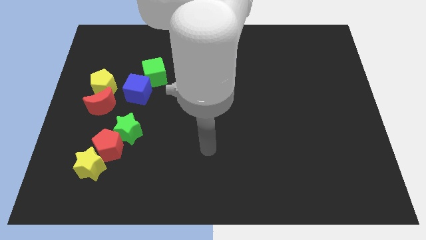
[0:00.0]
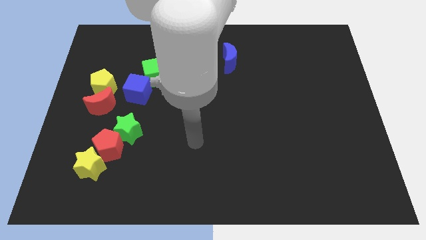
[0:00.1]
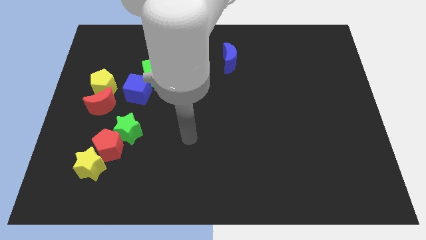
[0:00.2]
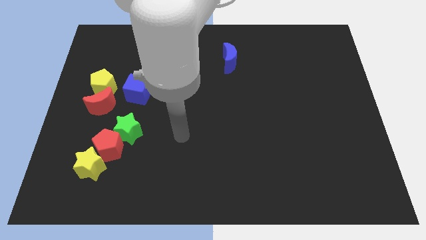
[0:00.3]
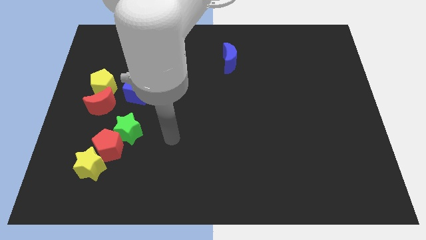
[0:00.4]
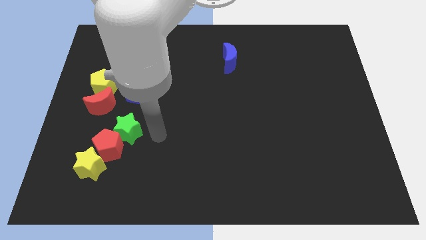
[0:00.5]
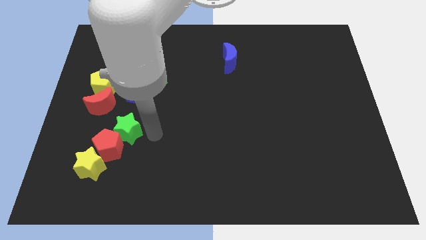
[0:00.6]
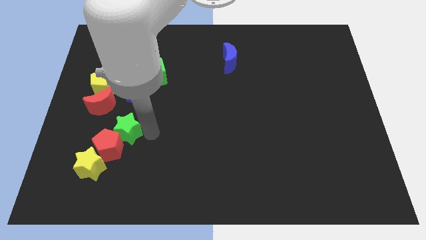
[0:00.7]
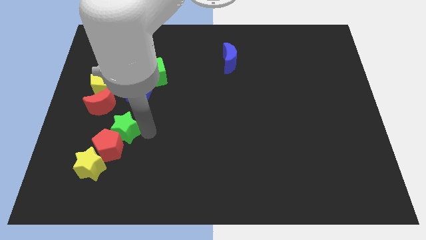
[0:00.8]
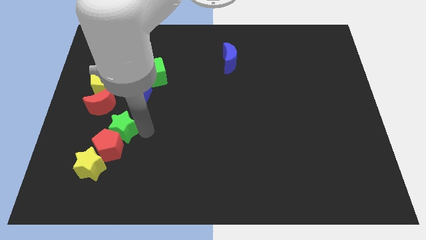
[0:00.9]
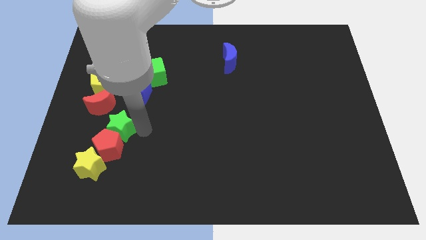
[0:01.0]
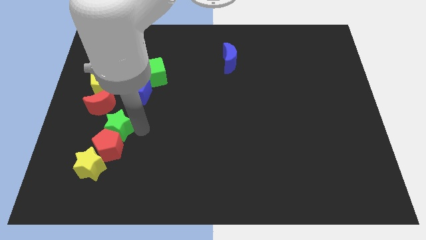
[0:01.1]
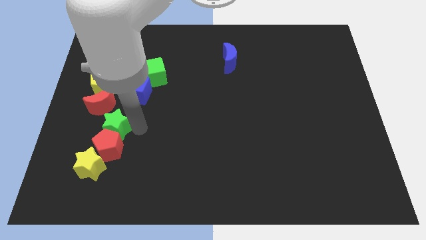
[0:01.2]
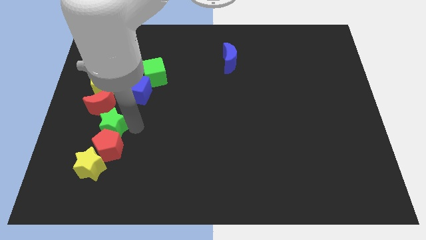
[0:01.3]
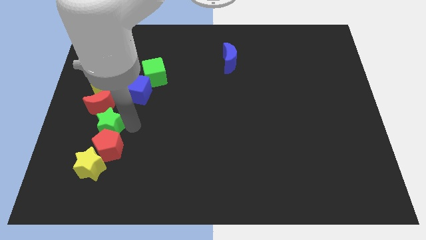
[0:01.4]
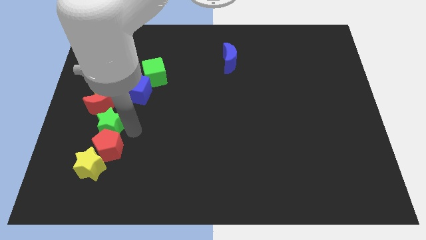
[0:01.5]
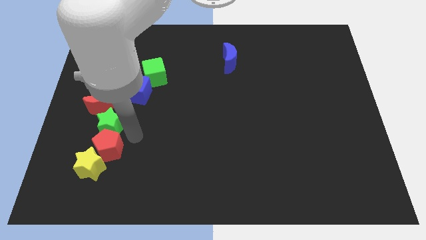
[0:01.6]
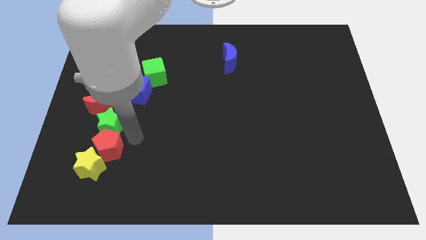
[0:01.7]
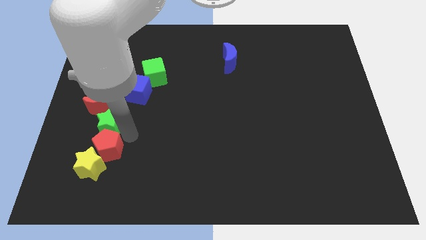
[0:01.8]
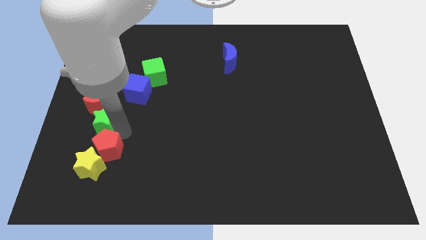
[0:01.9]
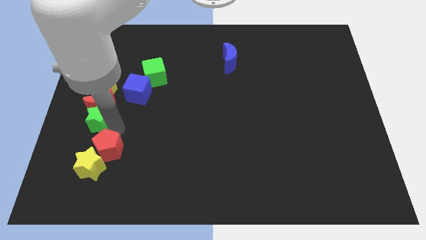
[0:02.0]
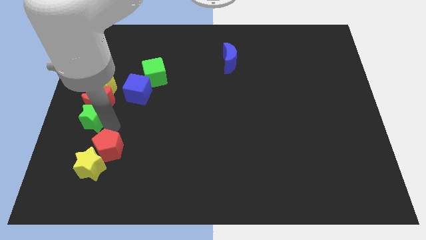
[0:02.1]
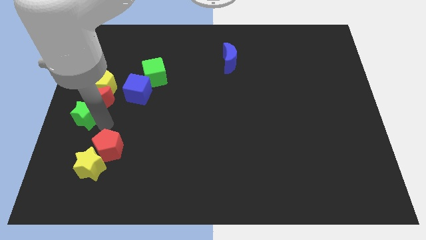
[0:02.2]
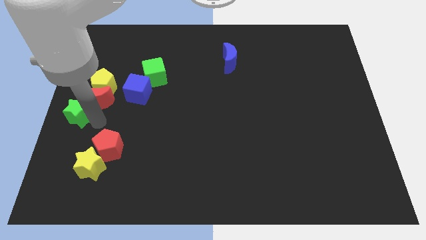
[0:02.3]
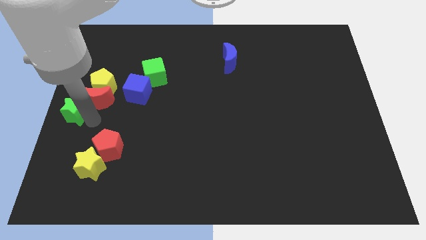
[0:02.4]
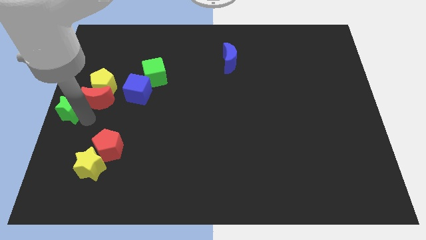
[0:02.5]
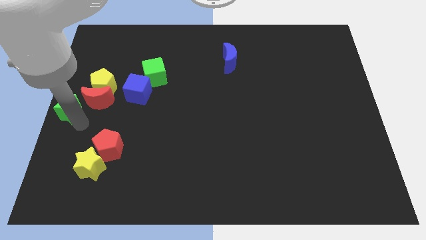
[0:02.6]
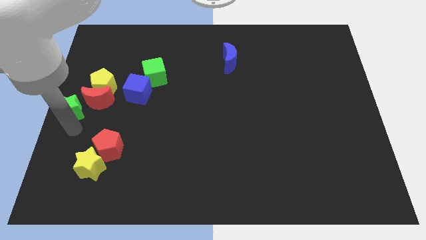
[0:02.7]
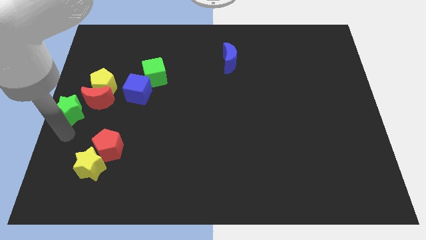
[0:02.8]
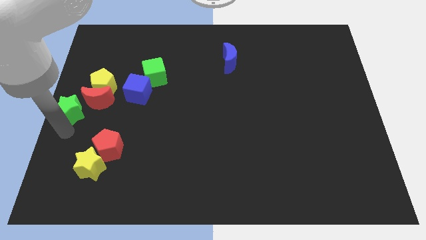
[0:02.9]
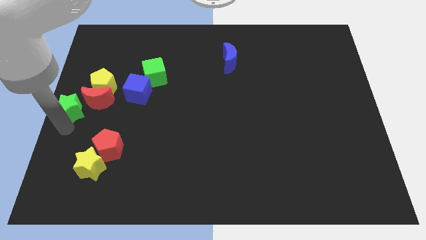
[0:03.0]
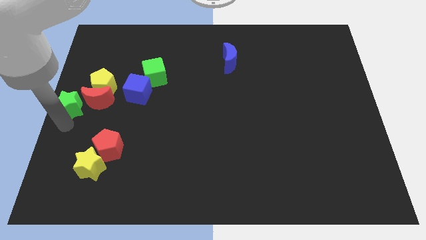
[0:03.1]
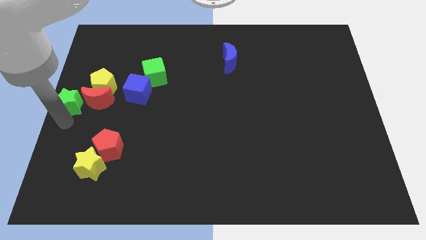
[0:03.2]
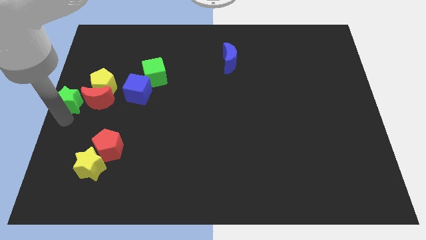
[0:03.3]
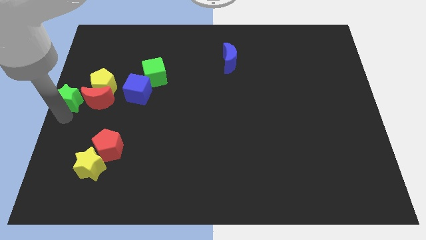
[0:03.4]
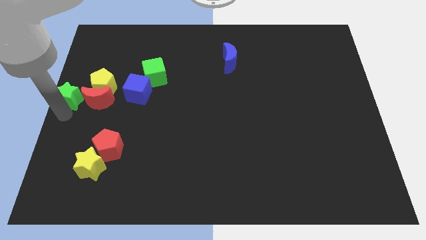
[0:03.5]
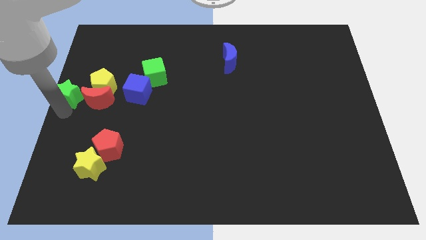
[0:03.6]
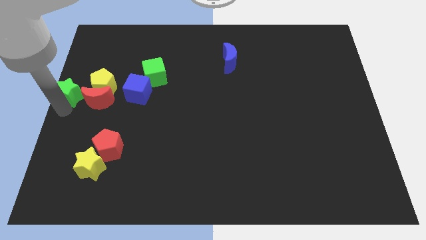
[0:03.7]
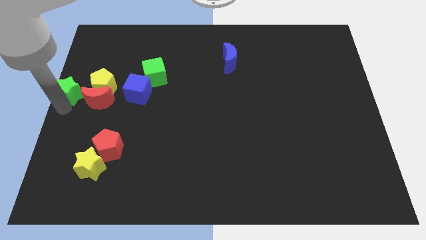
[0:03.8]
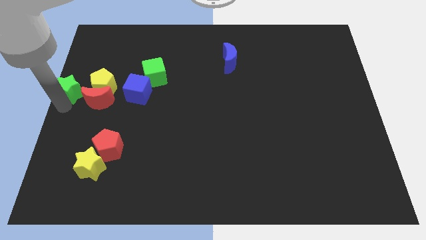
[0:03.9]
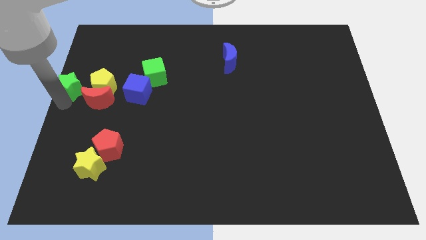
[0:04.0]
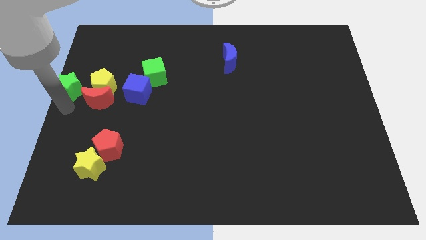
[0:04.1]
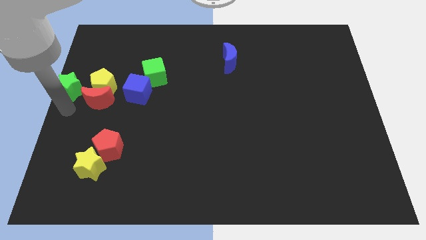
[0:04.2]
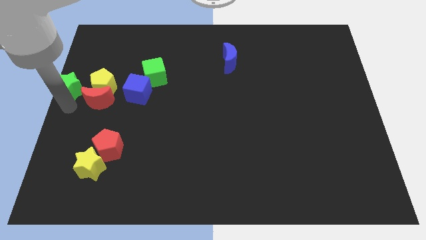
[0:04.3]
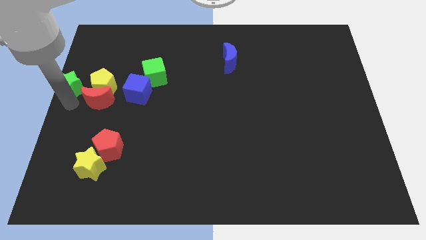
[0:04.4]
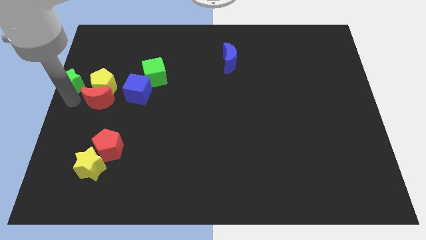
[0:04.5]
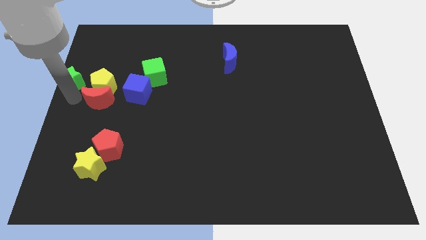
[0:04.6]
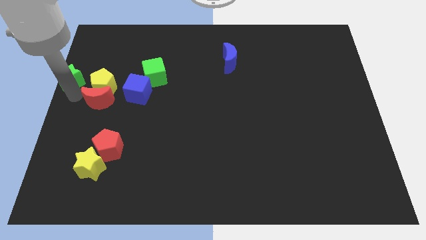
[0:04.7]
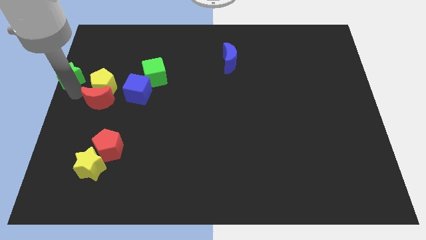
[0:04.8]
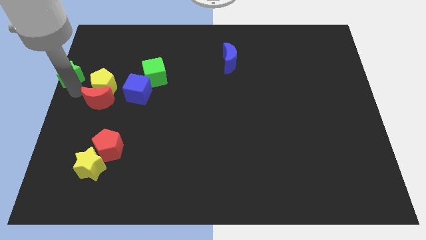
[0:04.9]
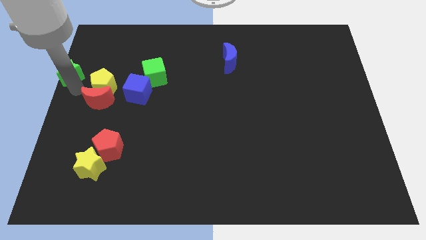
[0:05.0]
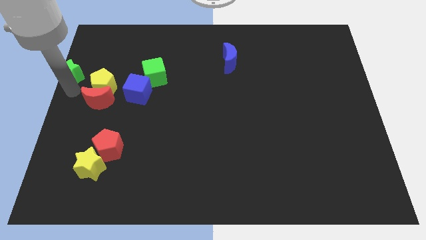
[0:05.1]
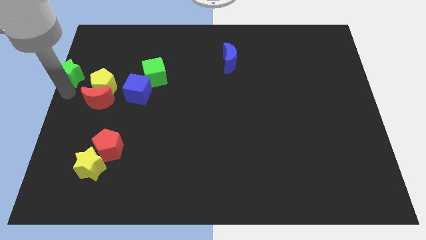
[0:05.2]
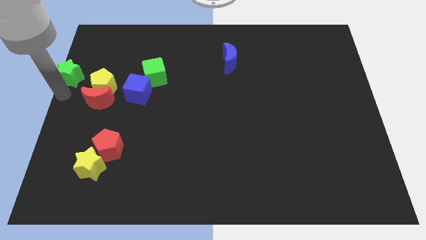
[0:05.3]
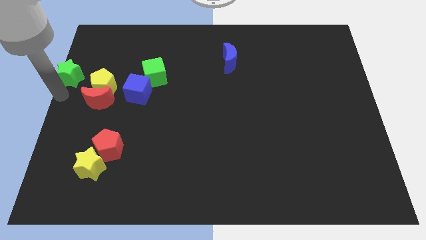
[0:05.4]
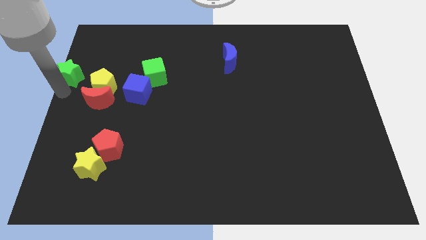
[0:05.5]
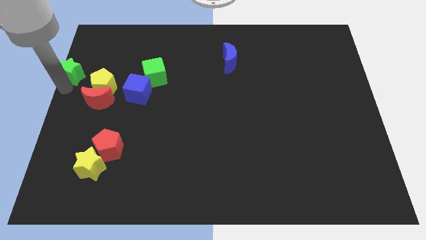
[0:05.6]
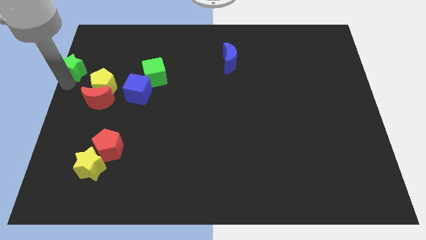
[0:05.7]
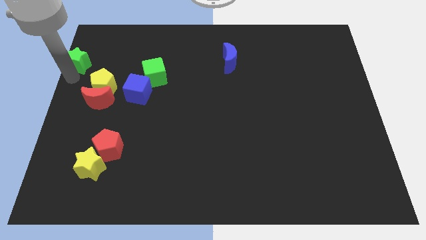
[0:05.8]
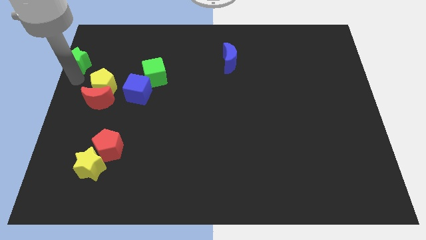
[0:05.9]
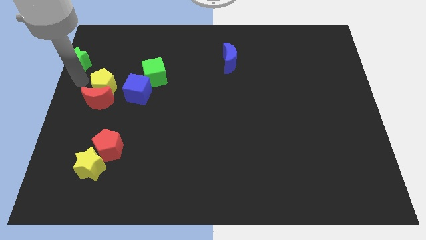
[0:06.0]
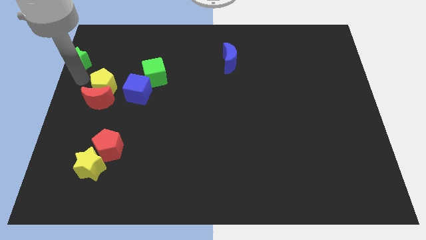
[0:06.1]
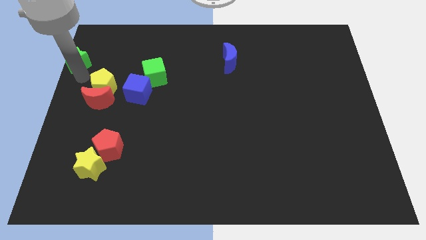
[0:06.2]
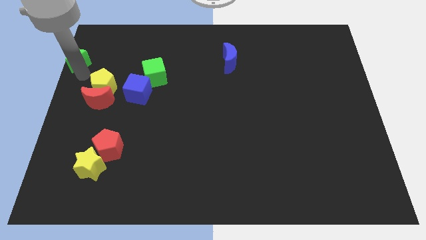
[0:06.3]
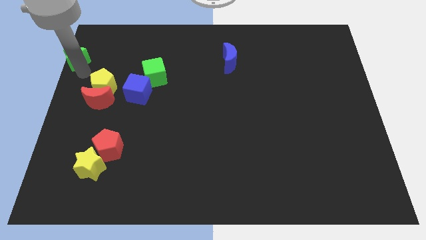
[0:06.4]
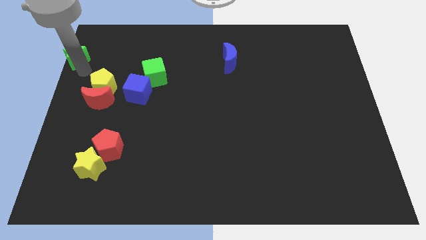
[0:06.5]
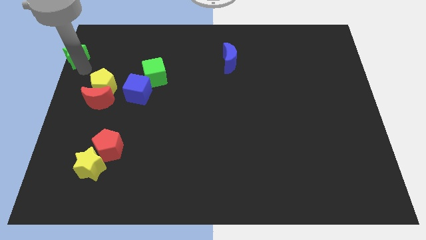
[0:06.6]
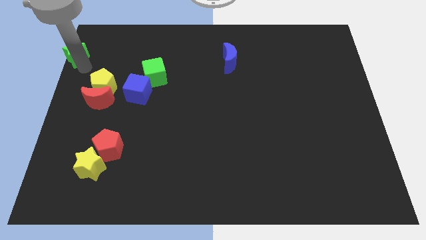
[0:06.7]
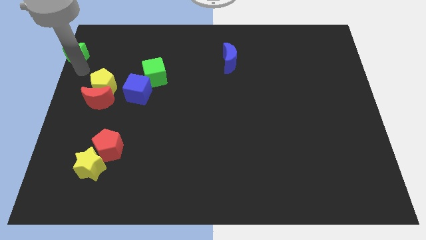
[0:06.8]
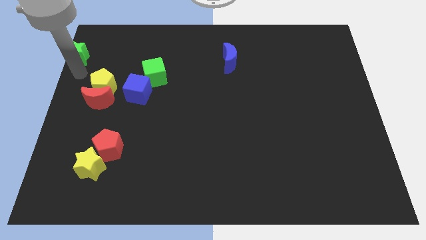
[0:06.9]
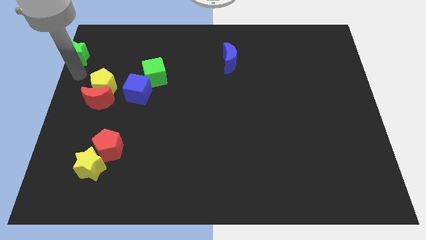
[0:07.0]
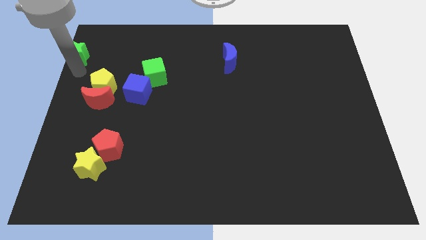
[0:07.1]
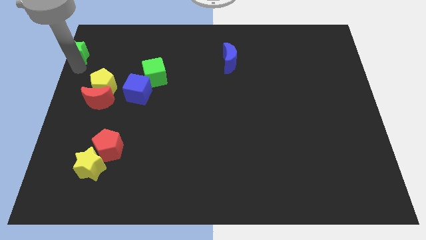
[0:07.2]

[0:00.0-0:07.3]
move the green star to the top left
